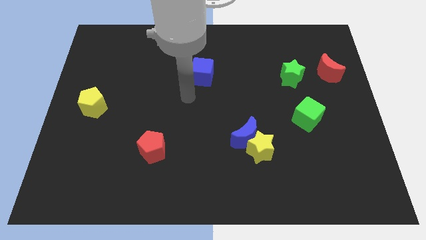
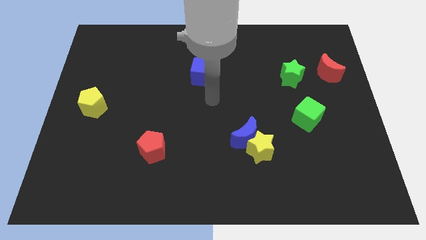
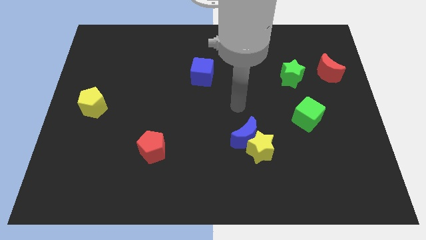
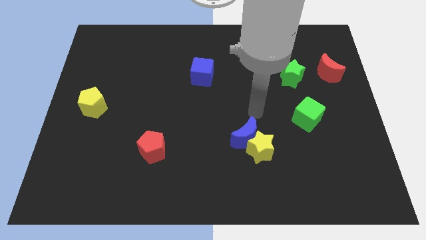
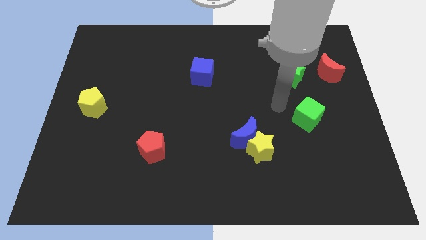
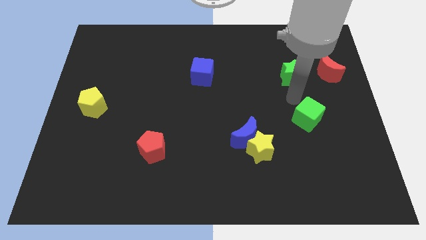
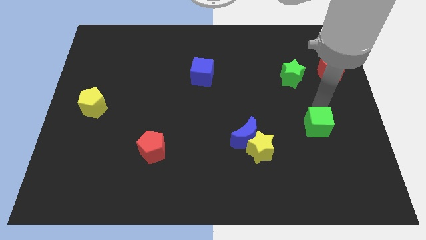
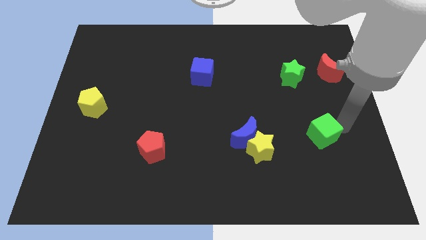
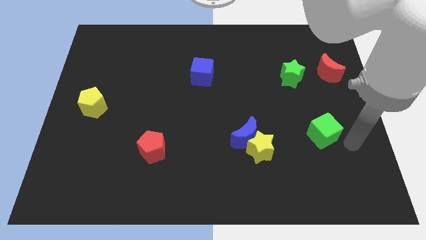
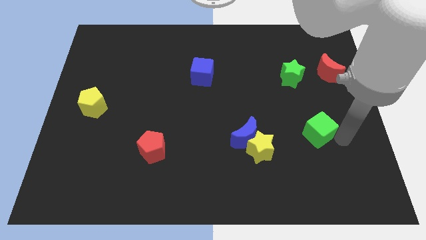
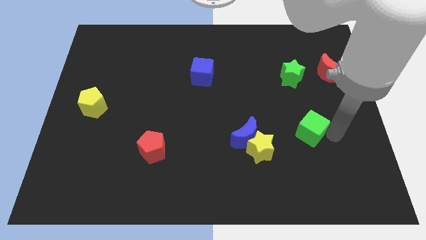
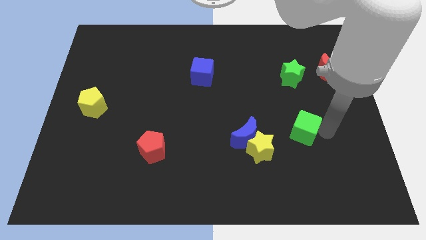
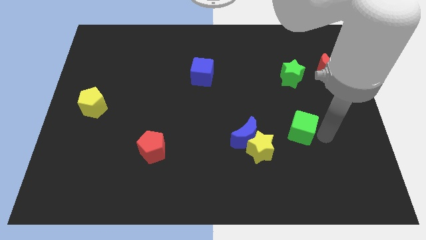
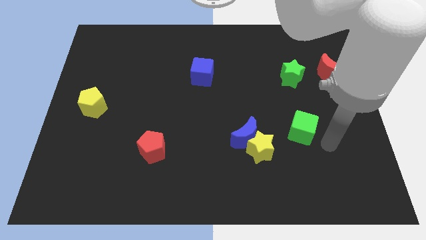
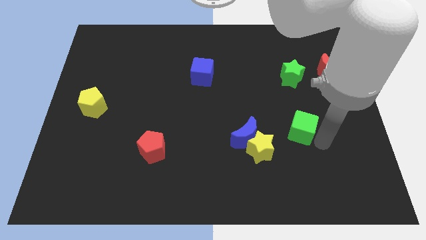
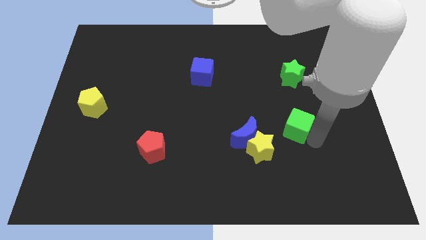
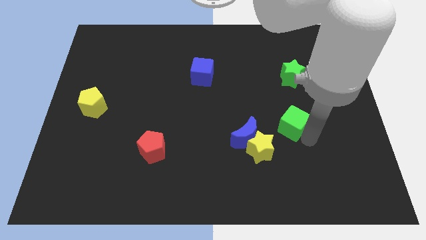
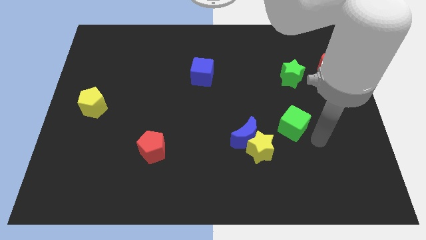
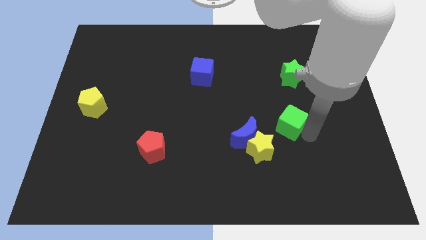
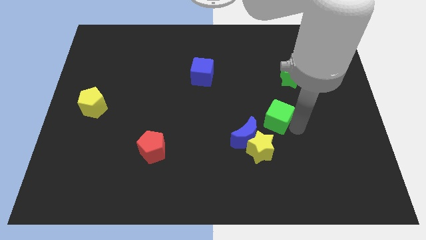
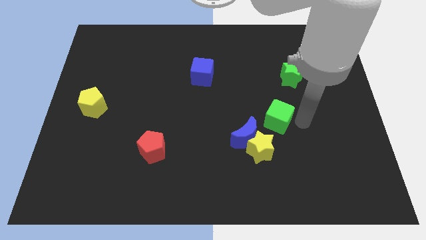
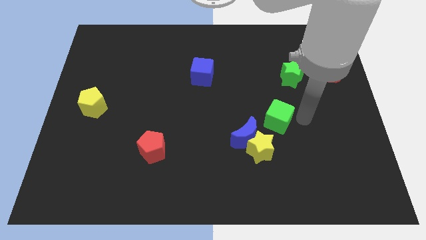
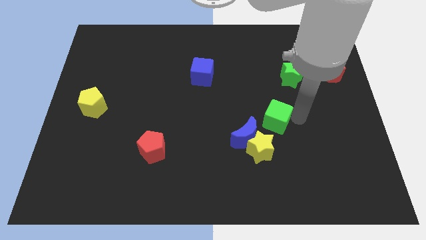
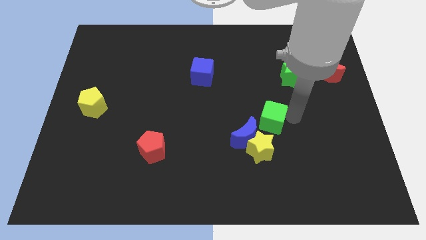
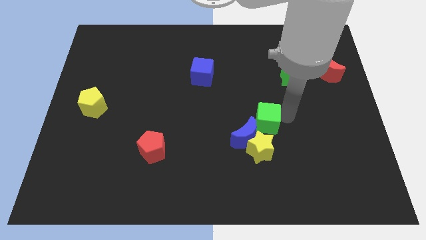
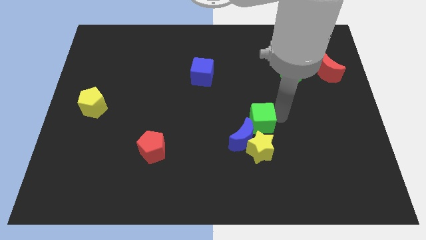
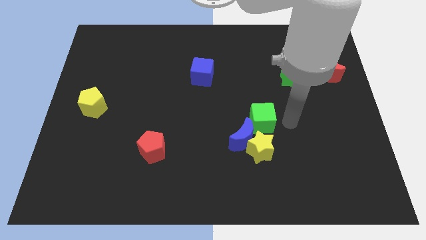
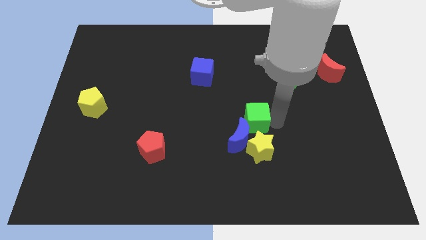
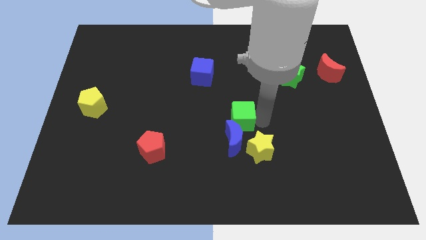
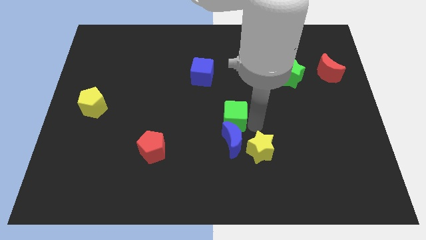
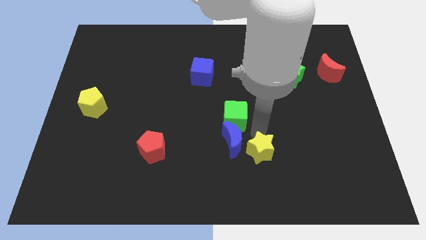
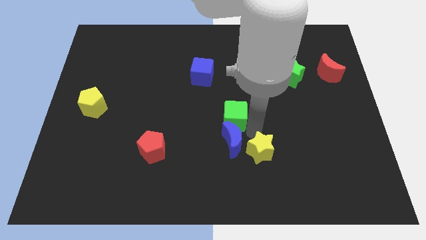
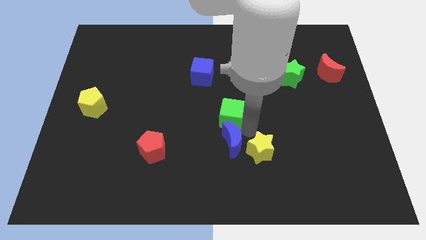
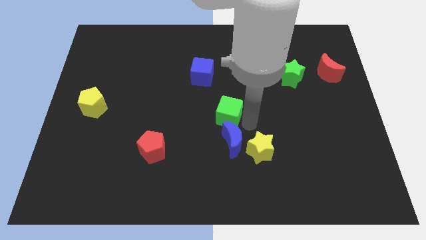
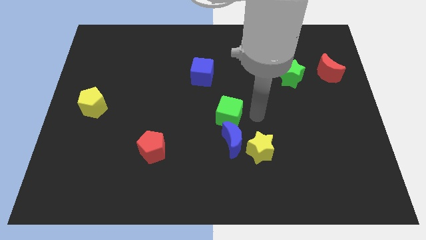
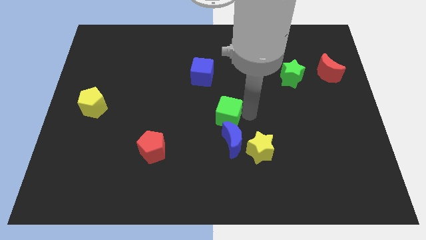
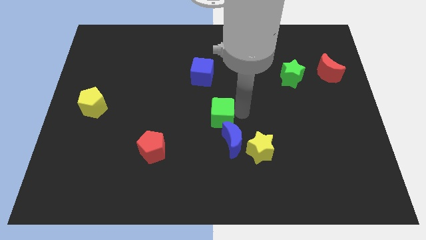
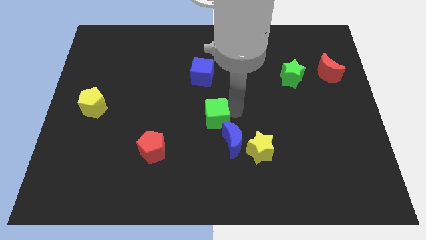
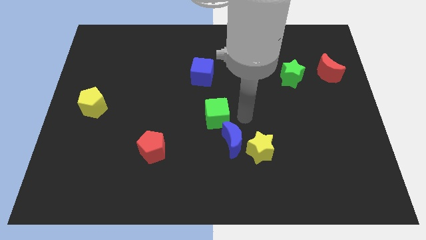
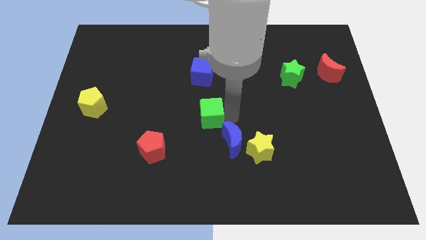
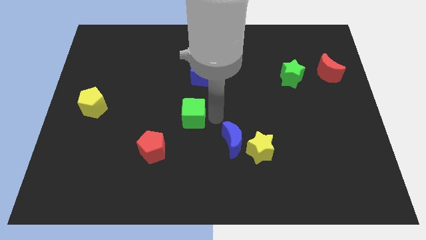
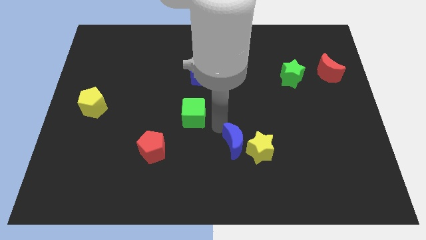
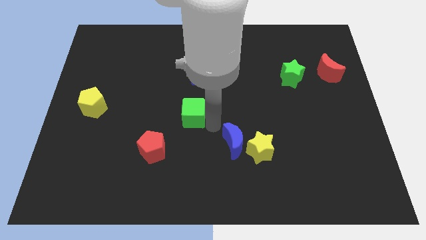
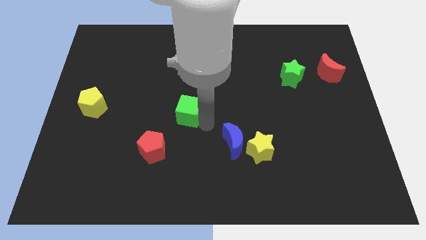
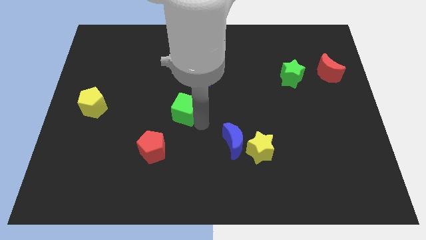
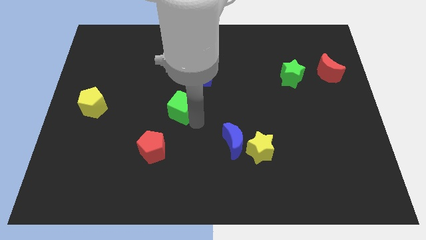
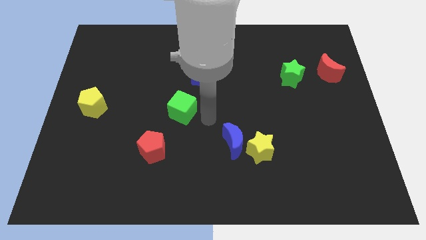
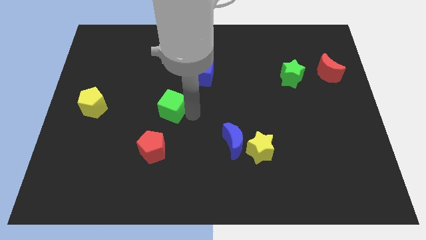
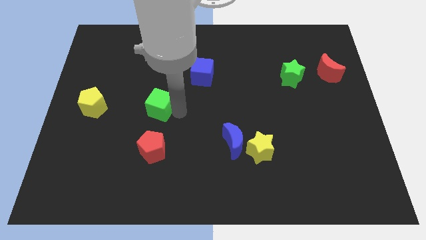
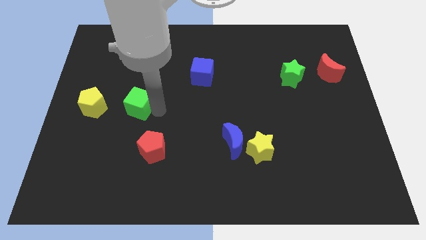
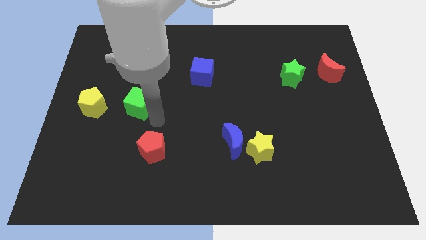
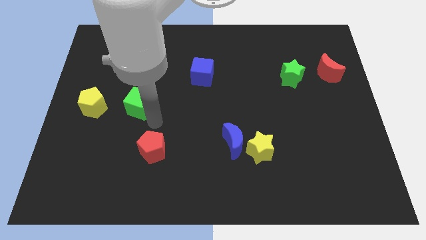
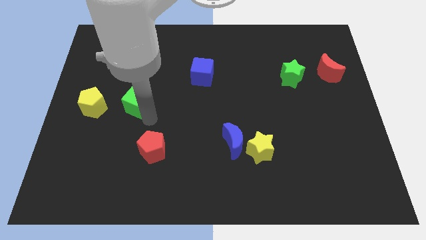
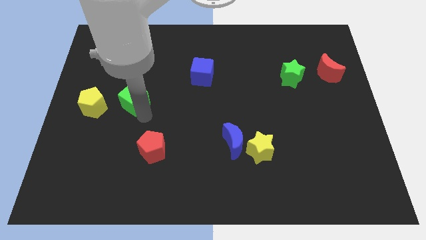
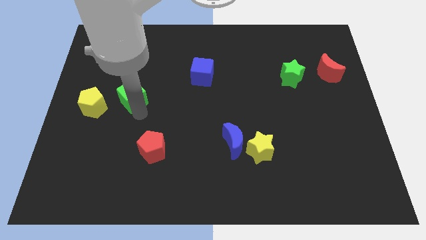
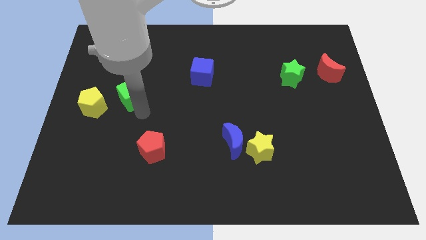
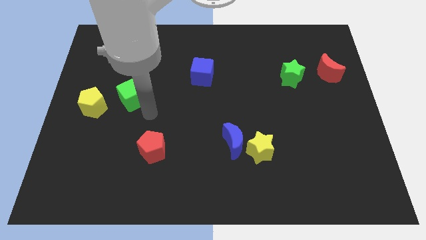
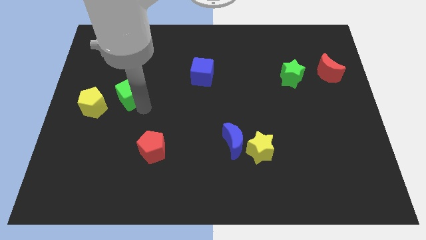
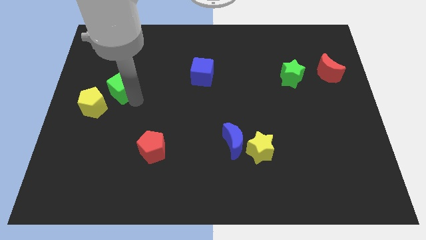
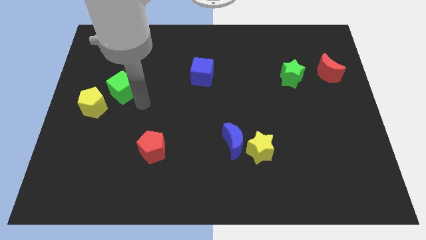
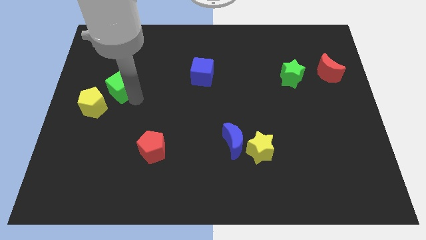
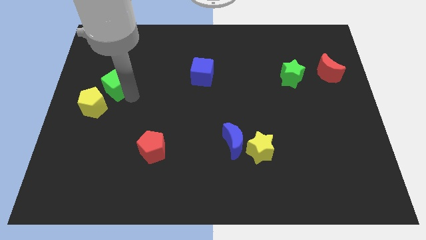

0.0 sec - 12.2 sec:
slide the green cube to the top side of the yellow pentagon

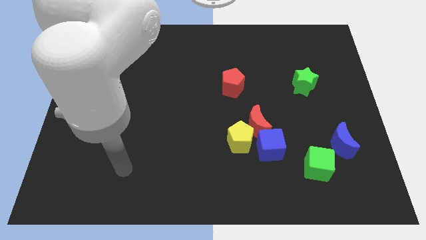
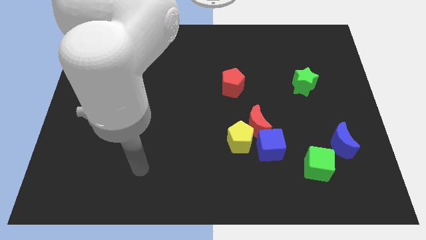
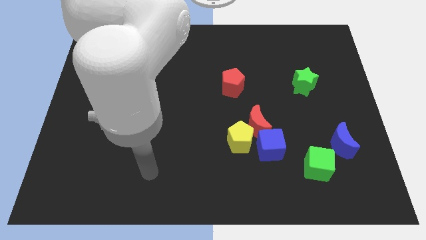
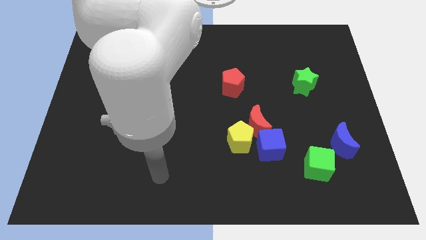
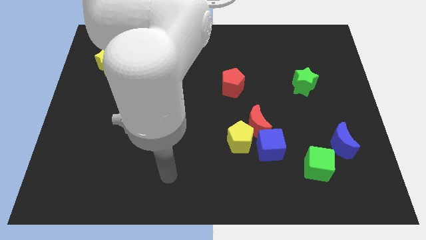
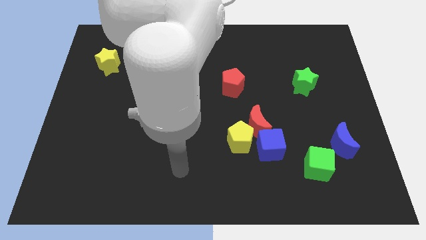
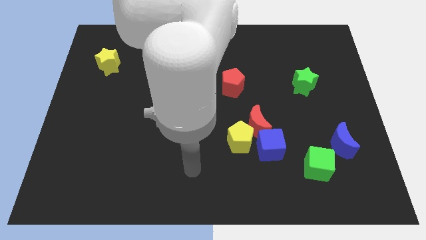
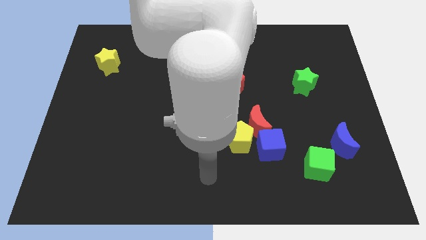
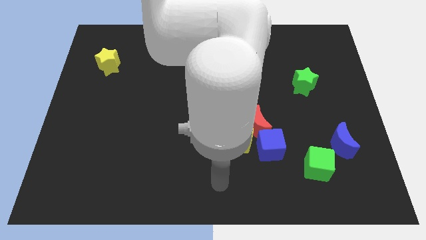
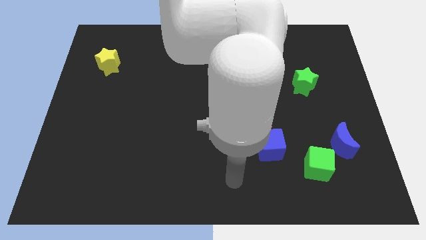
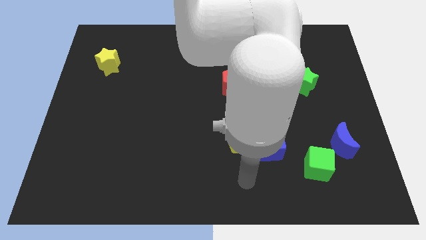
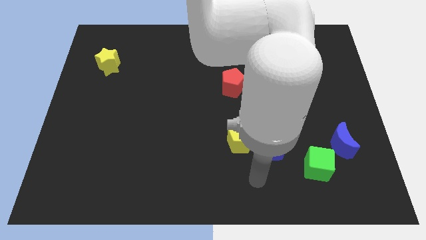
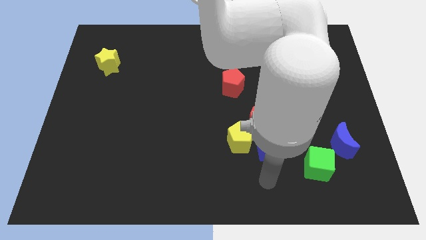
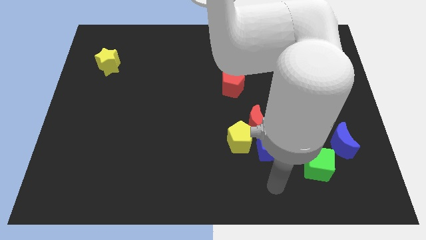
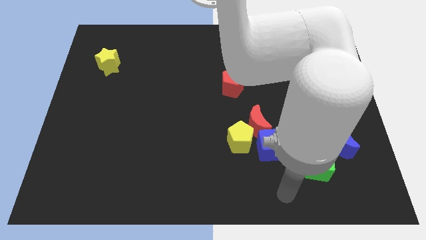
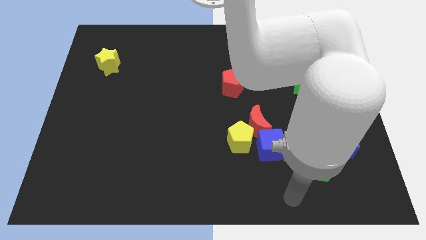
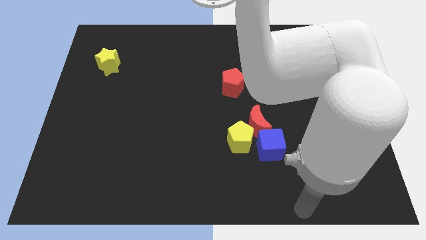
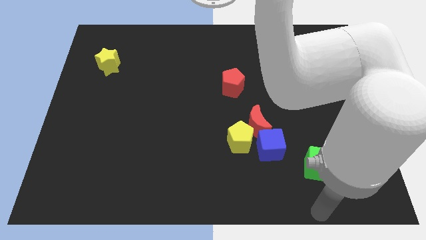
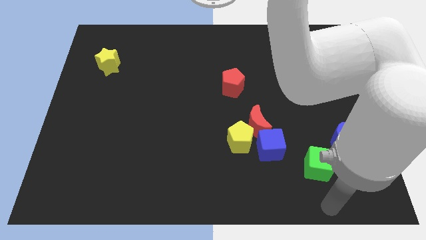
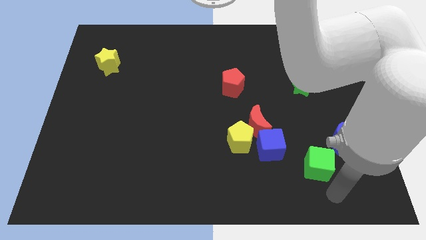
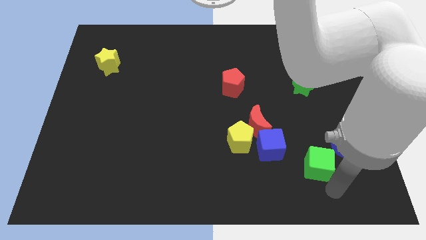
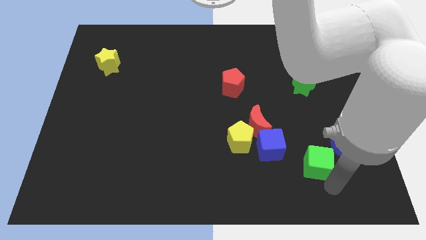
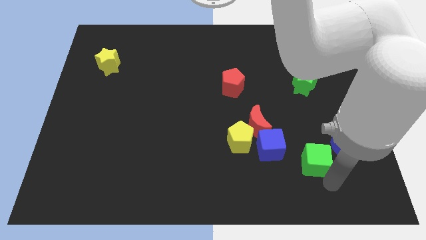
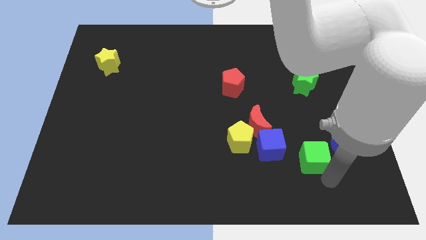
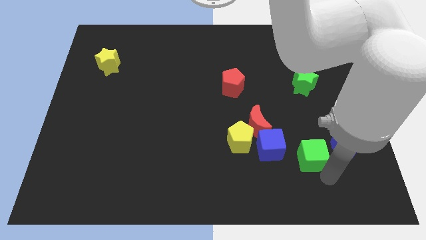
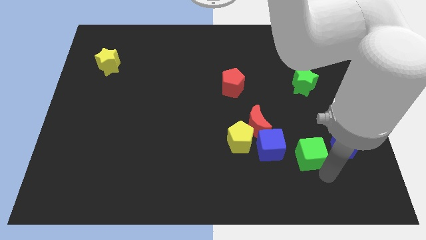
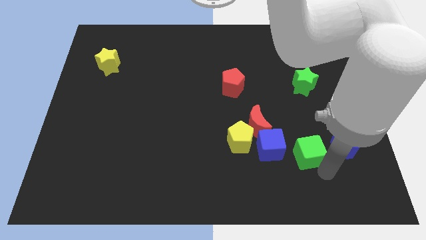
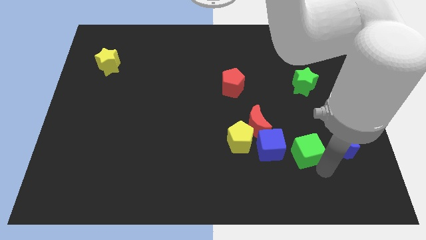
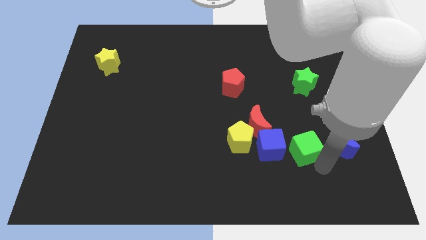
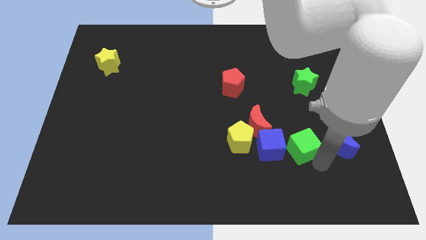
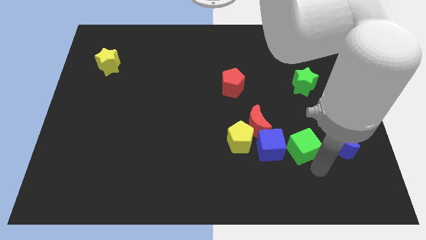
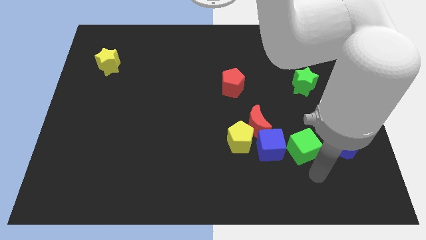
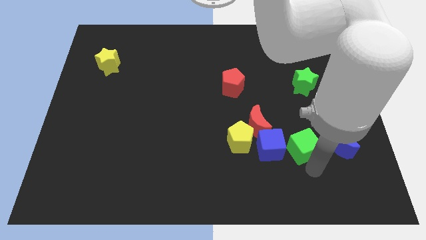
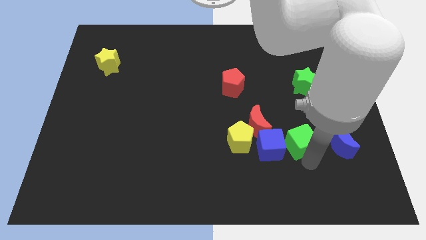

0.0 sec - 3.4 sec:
push the green cube to the top right side of the blue cube
